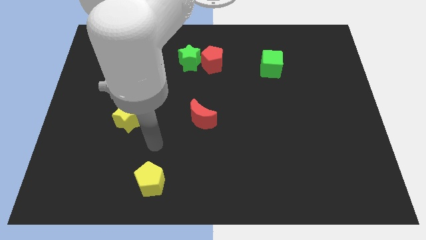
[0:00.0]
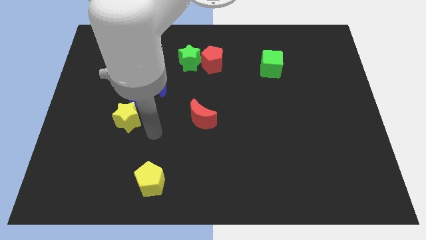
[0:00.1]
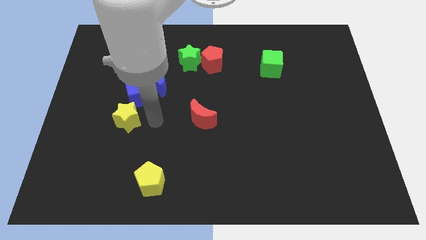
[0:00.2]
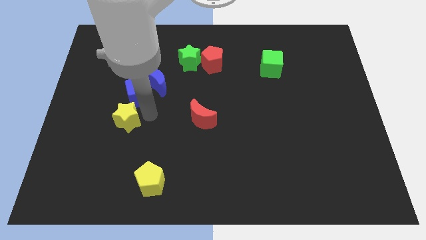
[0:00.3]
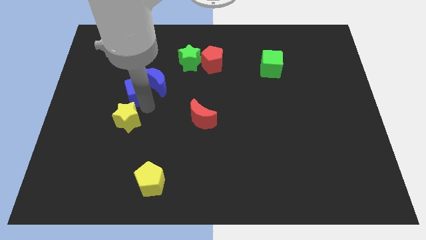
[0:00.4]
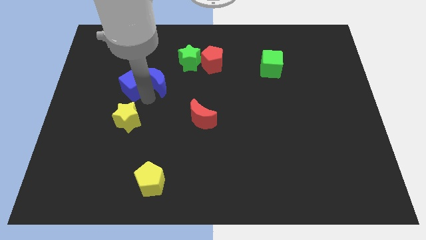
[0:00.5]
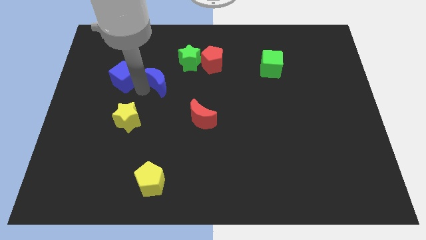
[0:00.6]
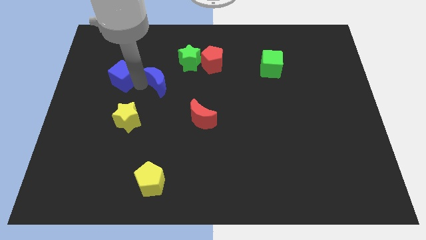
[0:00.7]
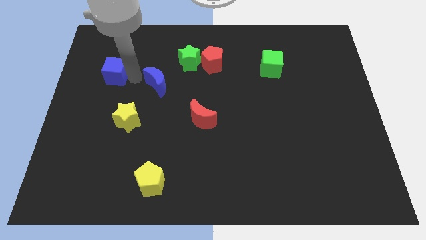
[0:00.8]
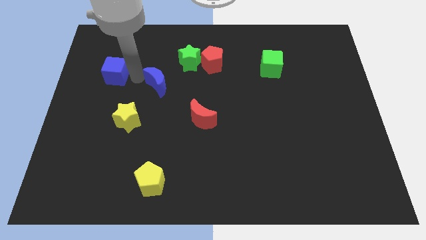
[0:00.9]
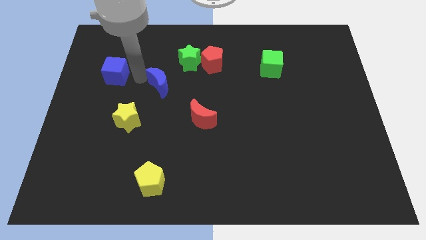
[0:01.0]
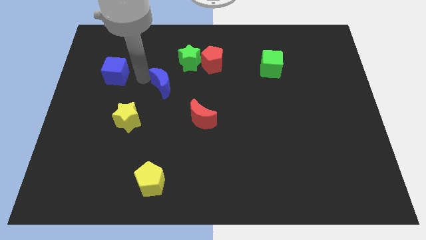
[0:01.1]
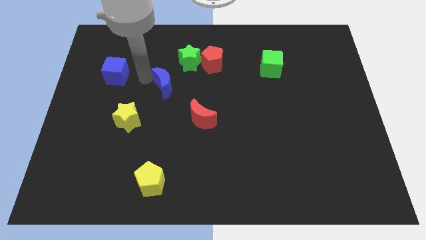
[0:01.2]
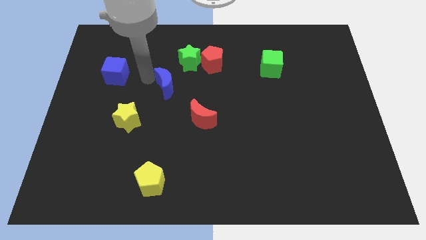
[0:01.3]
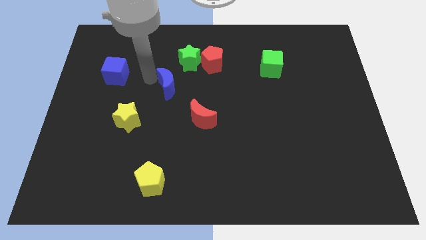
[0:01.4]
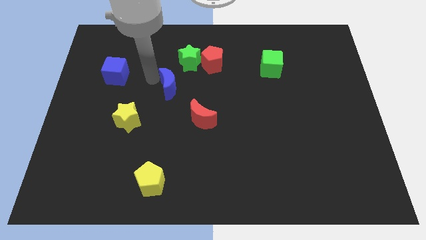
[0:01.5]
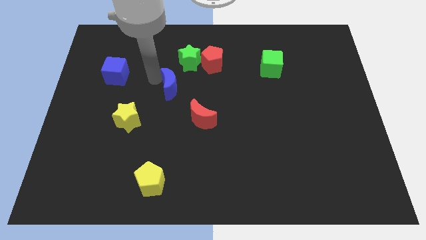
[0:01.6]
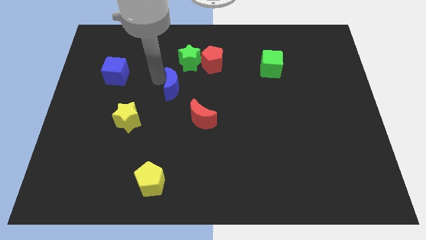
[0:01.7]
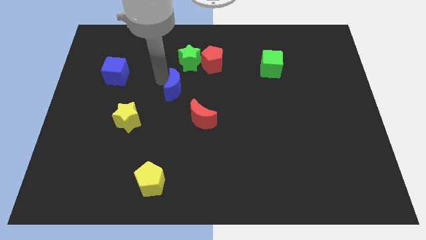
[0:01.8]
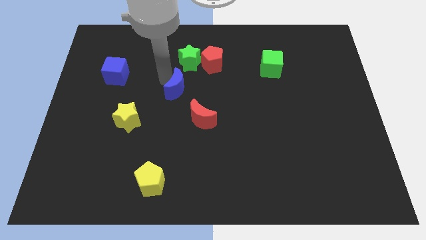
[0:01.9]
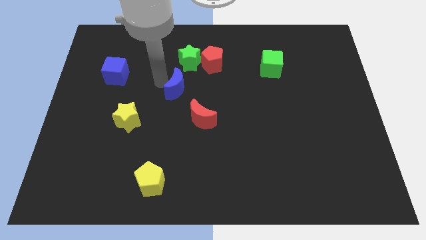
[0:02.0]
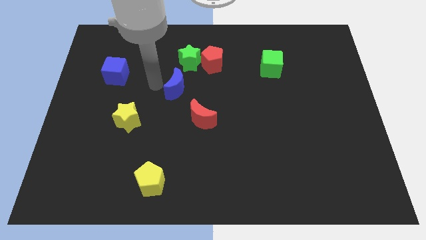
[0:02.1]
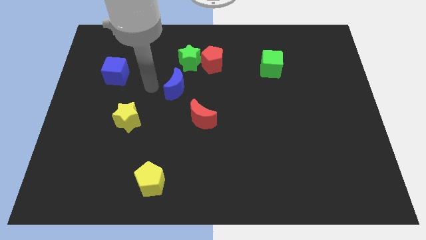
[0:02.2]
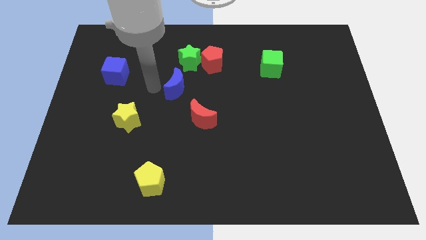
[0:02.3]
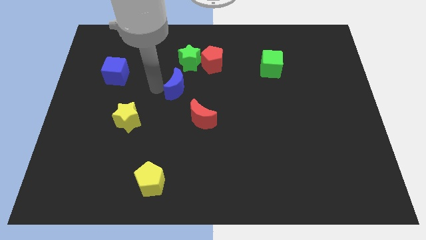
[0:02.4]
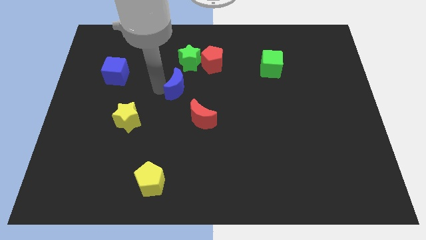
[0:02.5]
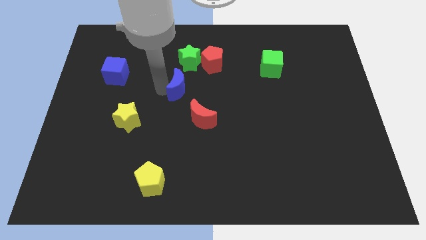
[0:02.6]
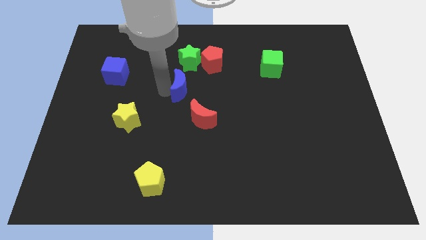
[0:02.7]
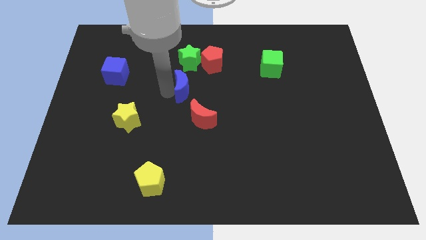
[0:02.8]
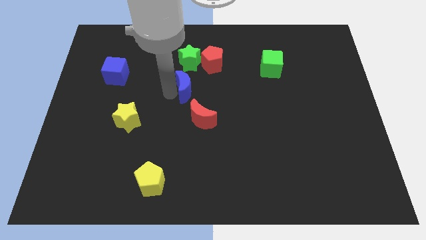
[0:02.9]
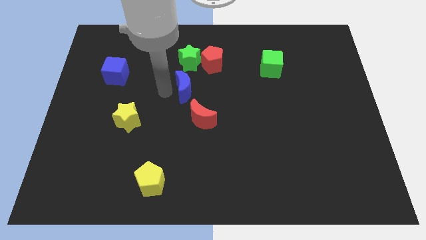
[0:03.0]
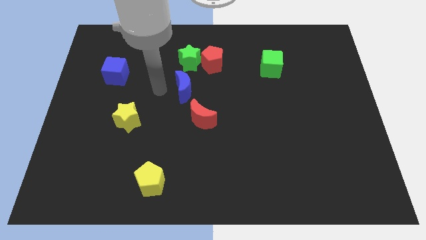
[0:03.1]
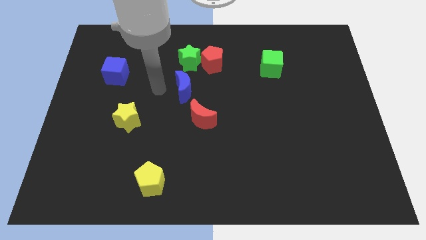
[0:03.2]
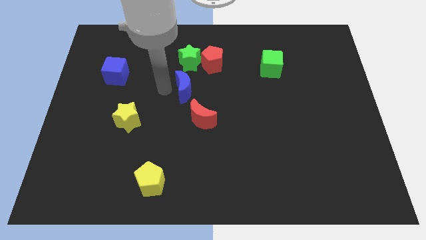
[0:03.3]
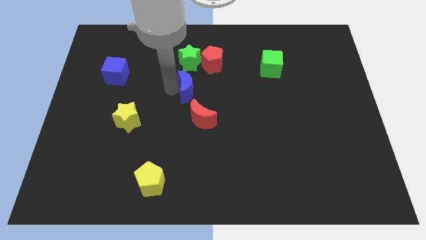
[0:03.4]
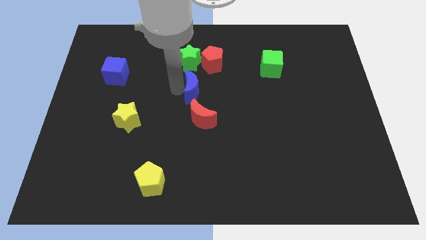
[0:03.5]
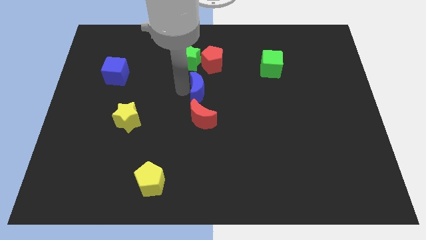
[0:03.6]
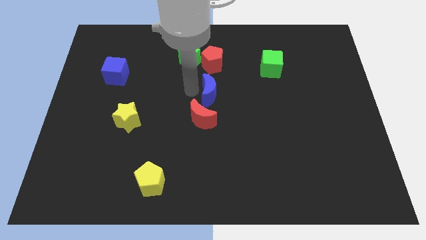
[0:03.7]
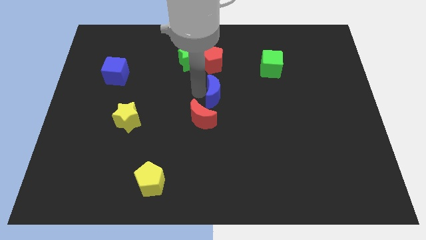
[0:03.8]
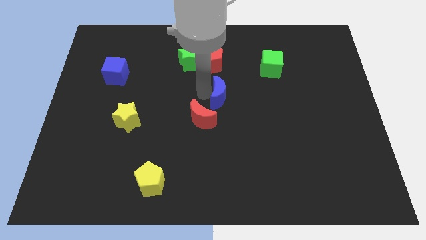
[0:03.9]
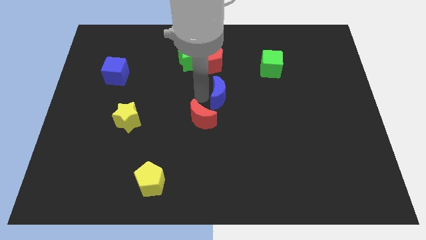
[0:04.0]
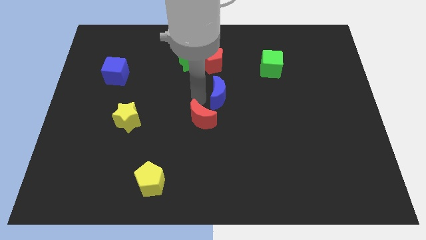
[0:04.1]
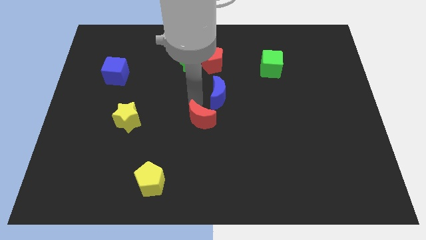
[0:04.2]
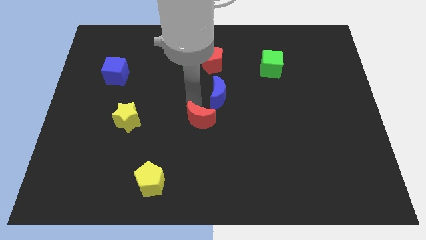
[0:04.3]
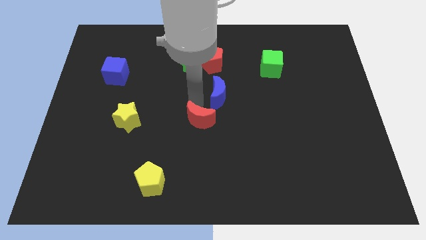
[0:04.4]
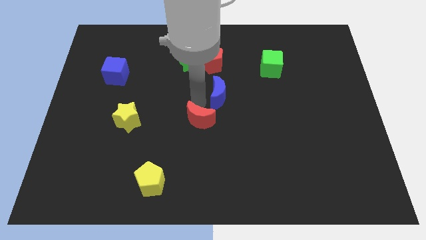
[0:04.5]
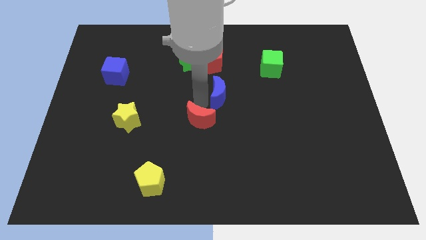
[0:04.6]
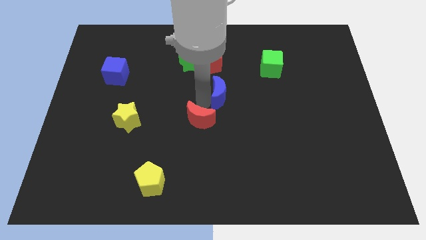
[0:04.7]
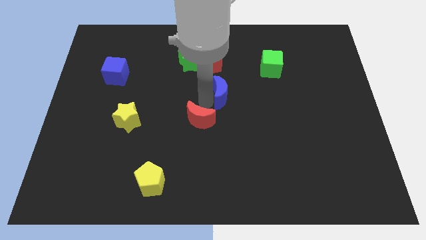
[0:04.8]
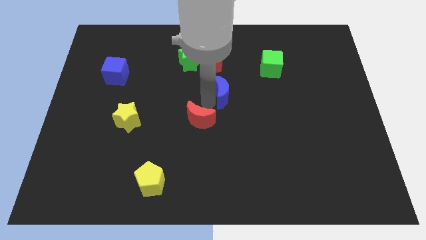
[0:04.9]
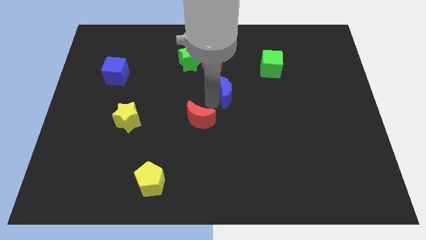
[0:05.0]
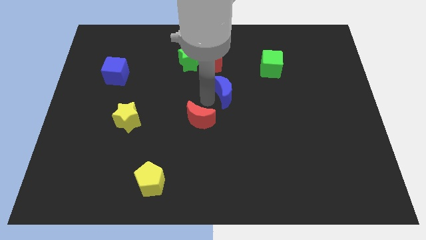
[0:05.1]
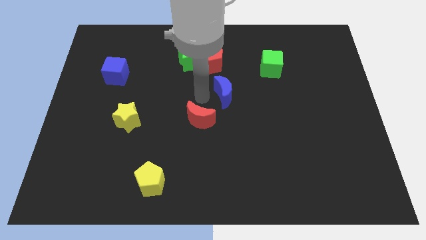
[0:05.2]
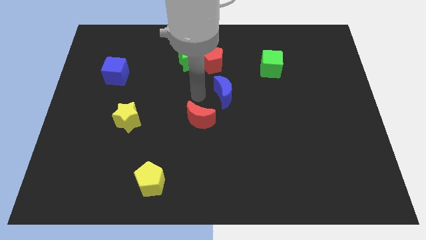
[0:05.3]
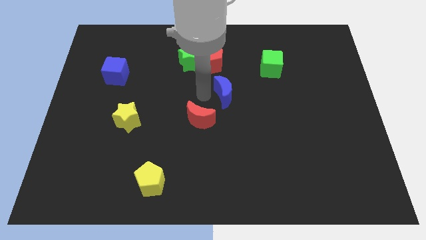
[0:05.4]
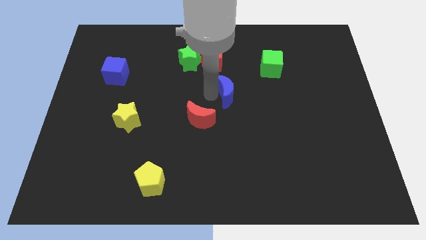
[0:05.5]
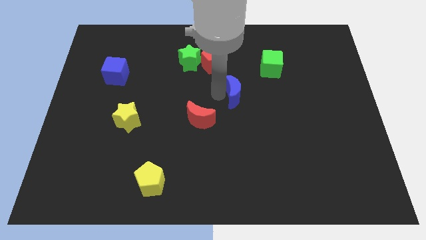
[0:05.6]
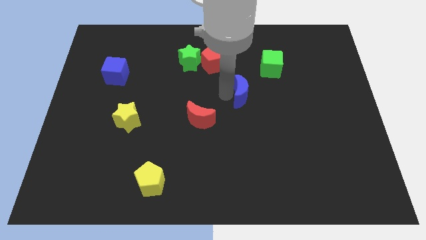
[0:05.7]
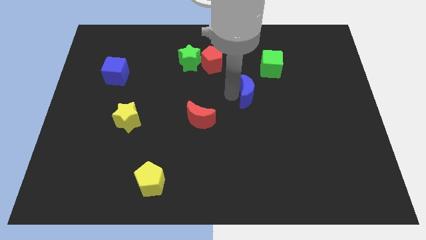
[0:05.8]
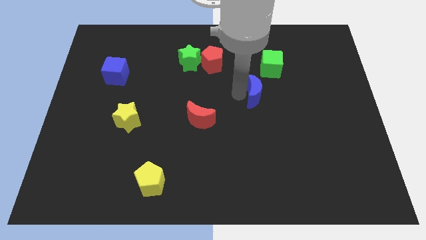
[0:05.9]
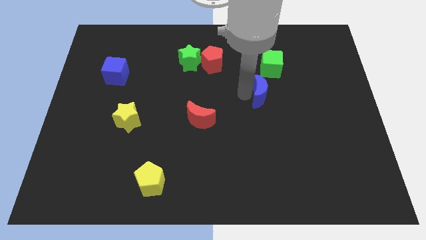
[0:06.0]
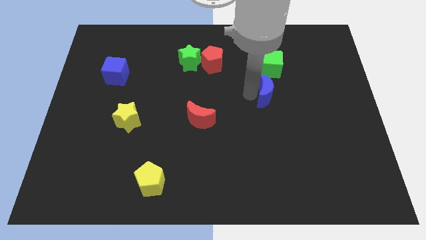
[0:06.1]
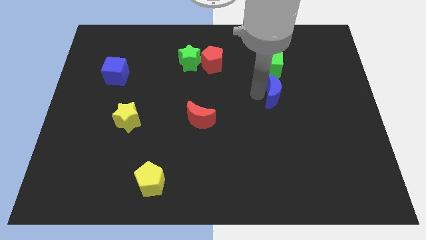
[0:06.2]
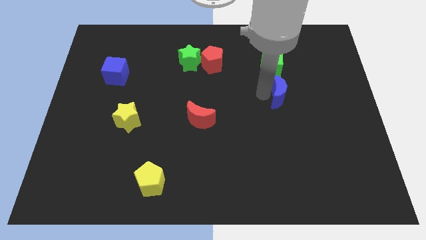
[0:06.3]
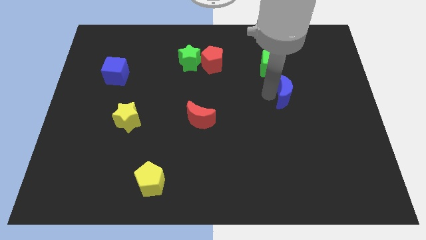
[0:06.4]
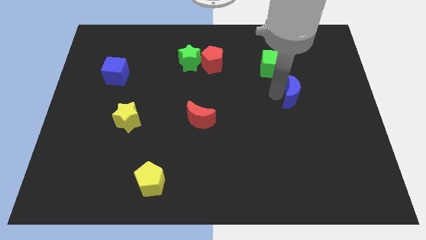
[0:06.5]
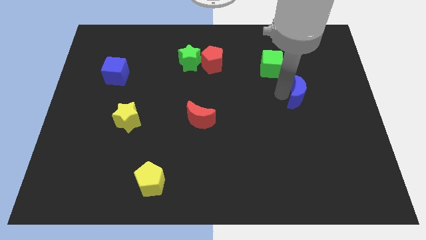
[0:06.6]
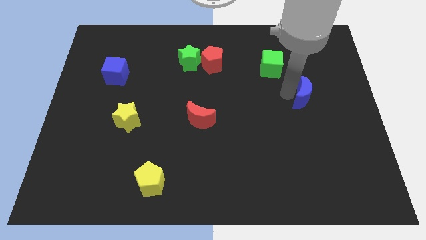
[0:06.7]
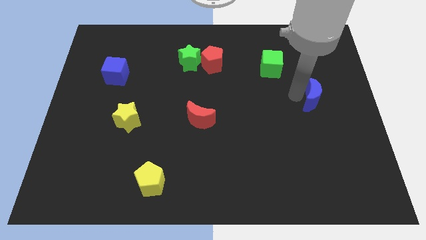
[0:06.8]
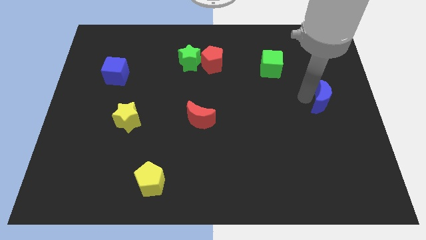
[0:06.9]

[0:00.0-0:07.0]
move the blue moon to the center right
